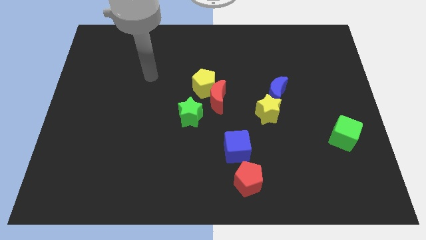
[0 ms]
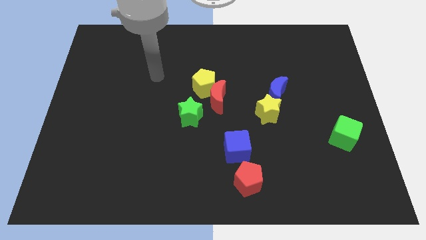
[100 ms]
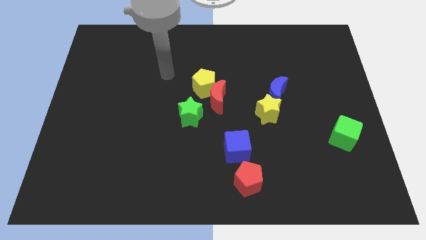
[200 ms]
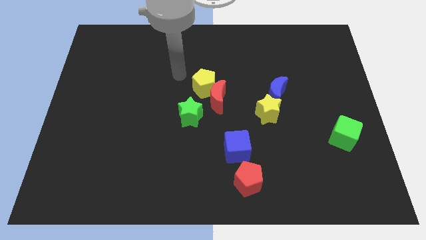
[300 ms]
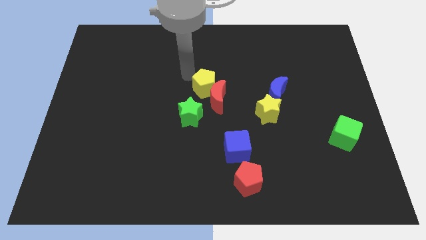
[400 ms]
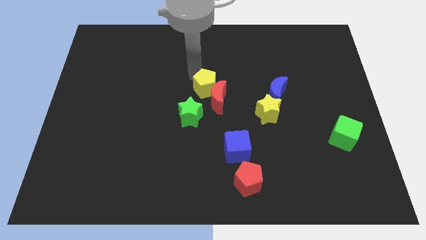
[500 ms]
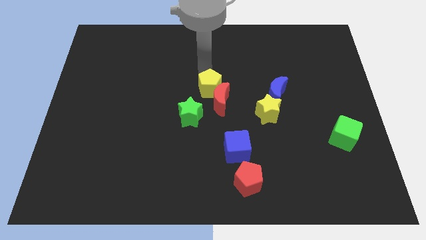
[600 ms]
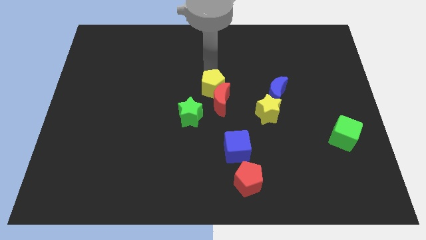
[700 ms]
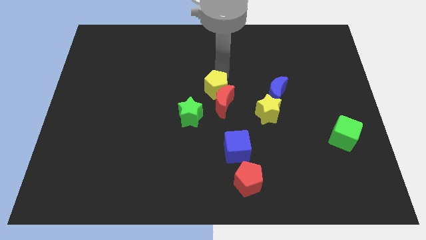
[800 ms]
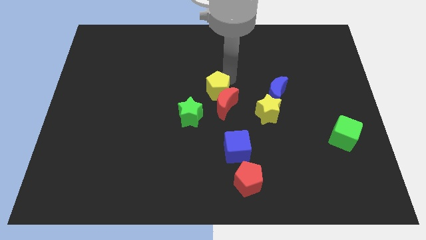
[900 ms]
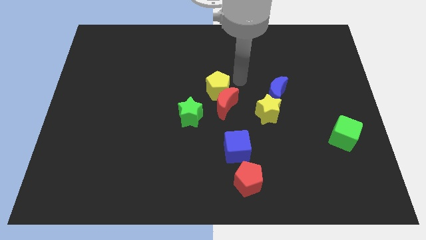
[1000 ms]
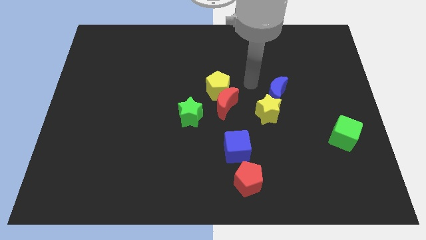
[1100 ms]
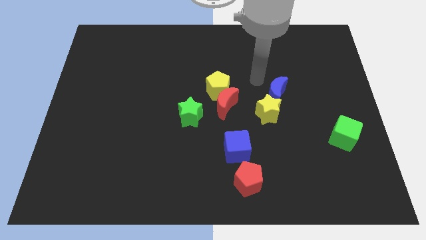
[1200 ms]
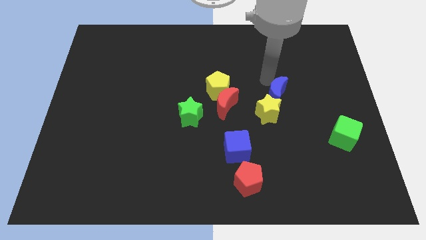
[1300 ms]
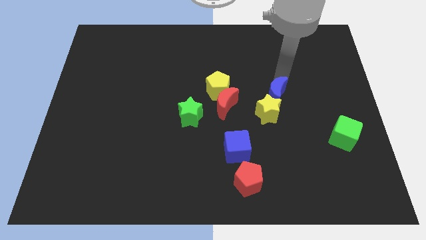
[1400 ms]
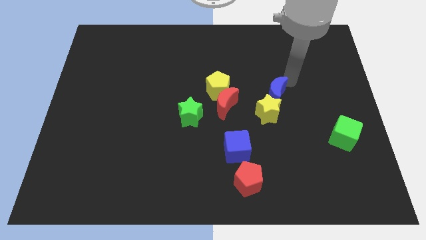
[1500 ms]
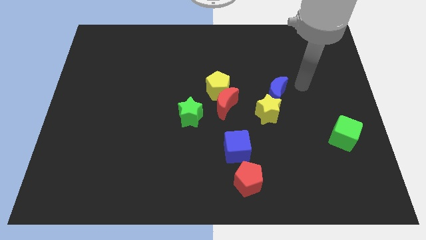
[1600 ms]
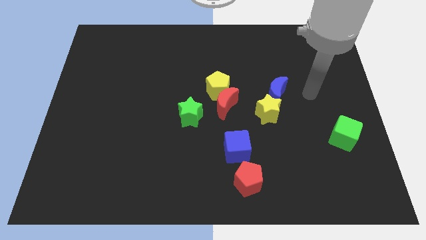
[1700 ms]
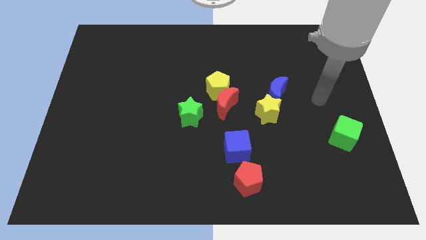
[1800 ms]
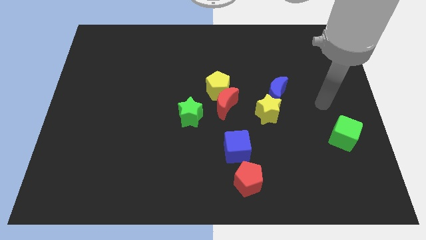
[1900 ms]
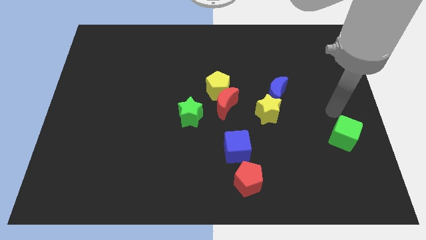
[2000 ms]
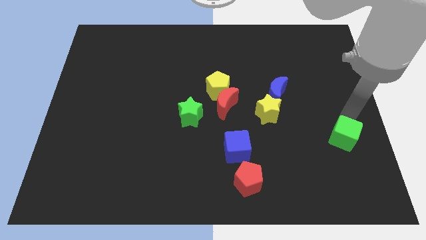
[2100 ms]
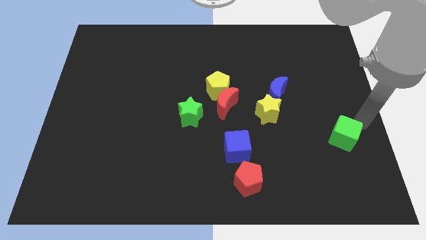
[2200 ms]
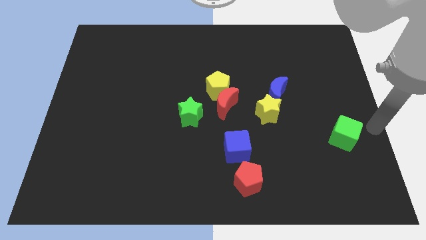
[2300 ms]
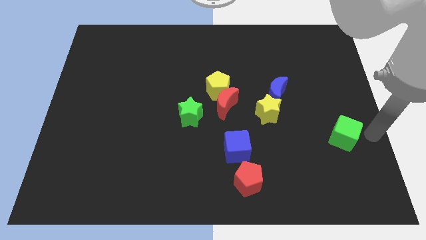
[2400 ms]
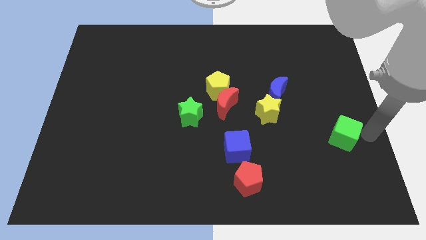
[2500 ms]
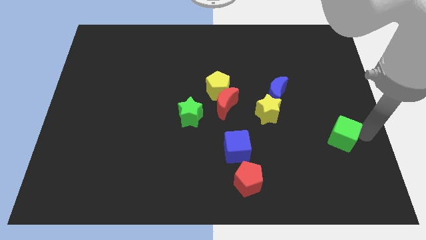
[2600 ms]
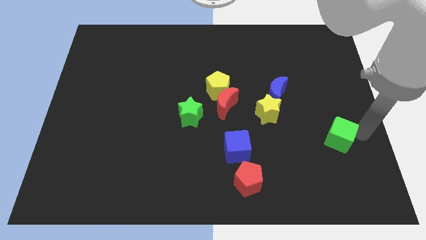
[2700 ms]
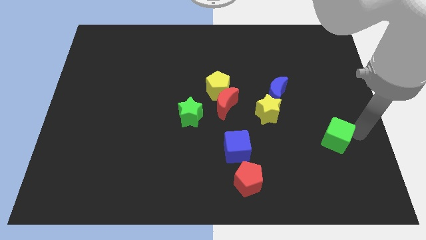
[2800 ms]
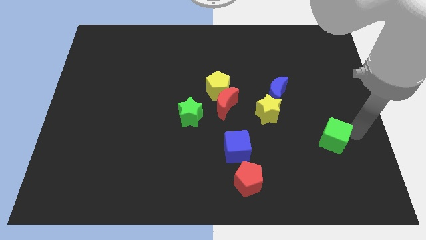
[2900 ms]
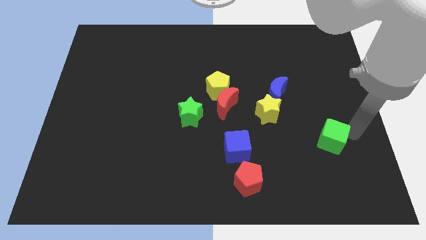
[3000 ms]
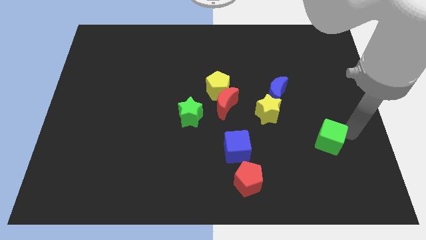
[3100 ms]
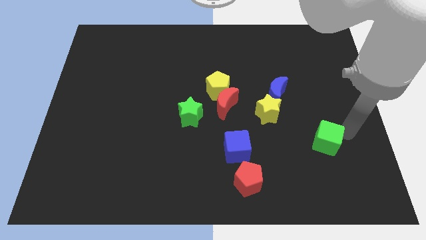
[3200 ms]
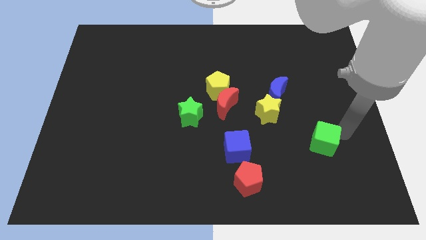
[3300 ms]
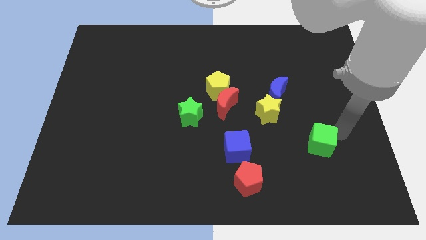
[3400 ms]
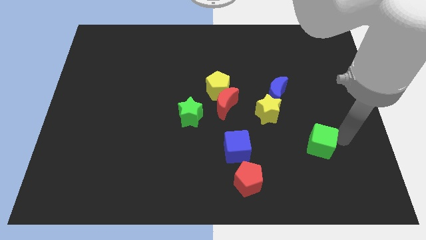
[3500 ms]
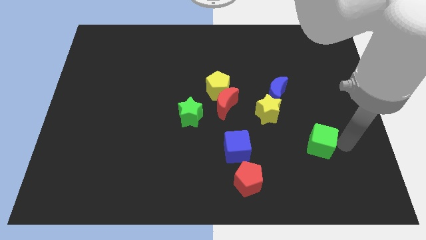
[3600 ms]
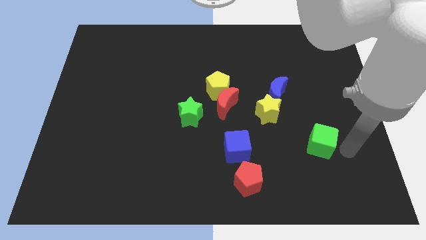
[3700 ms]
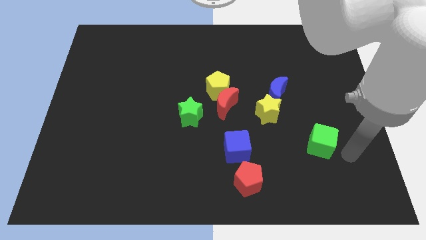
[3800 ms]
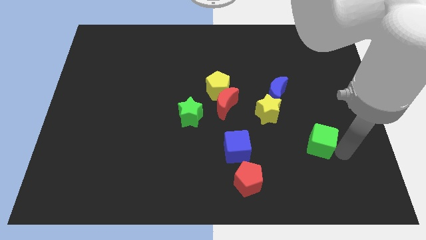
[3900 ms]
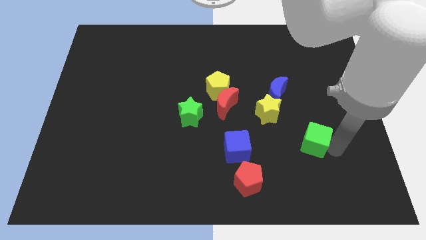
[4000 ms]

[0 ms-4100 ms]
push the green cube left a little bit

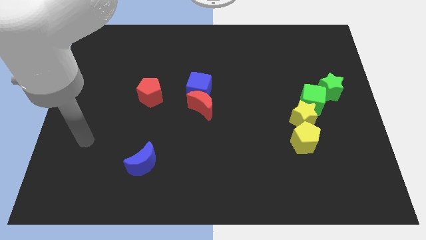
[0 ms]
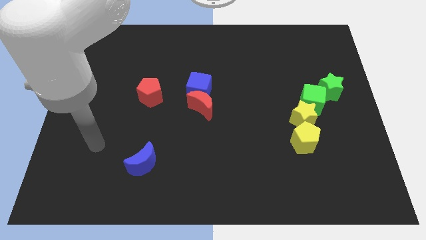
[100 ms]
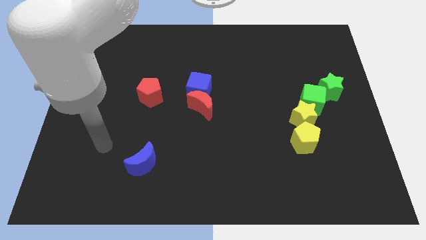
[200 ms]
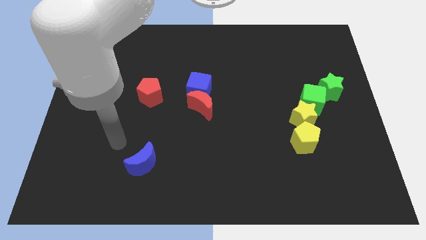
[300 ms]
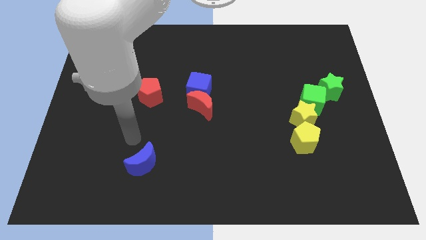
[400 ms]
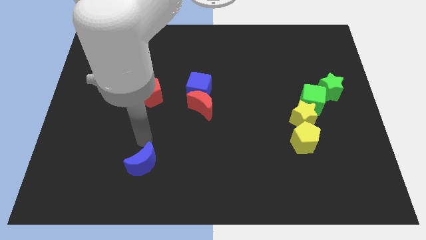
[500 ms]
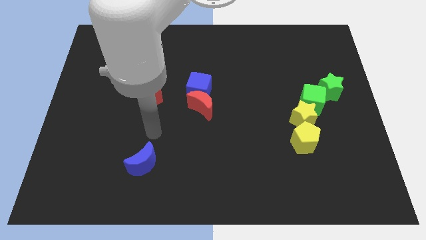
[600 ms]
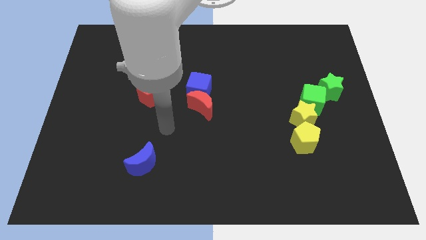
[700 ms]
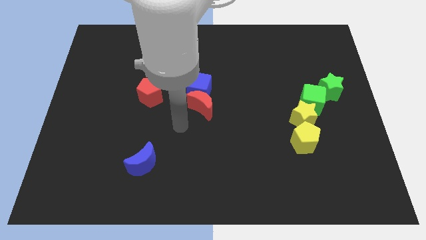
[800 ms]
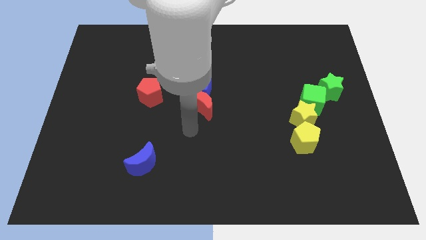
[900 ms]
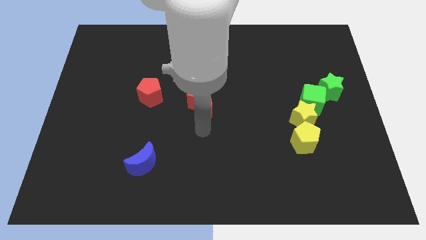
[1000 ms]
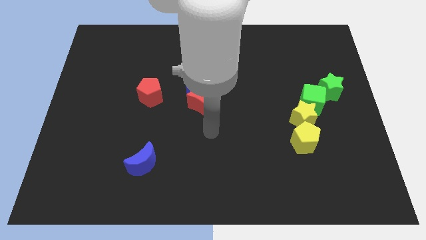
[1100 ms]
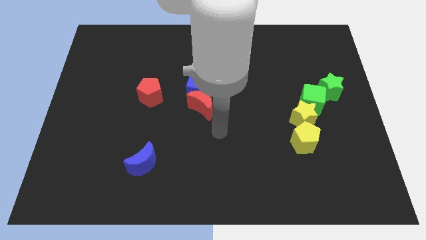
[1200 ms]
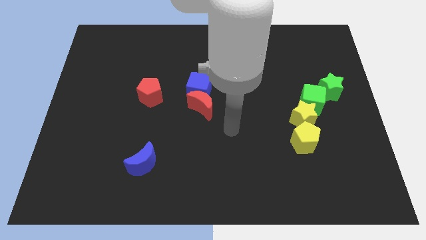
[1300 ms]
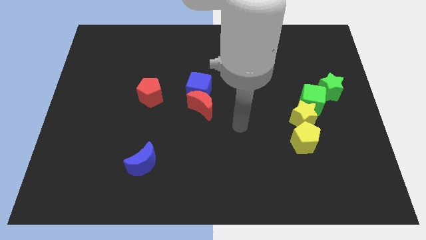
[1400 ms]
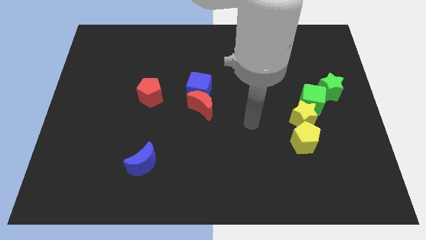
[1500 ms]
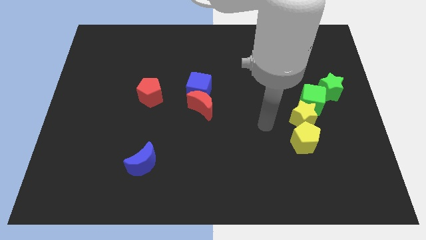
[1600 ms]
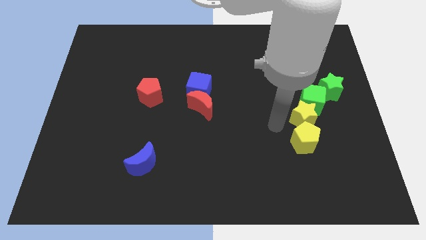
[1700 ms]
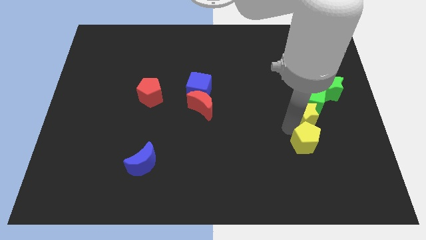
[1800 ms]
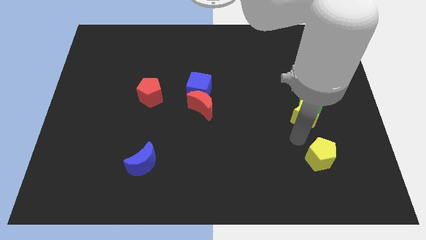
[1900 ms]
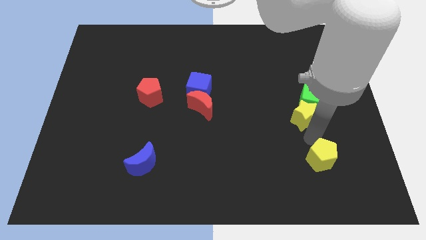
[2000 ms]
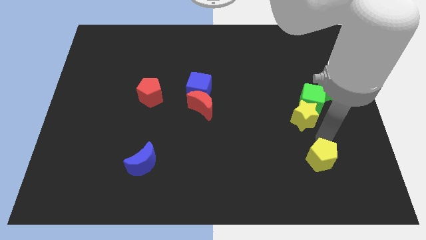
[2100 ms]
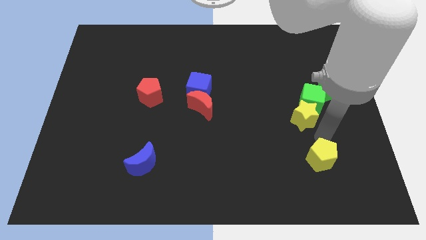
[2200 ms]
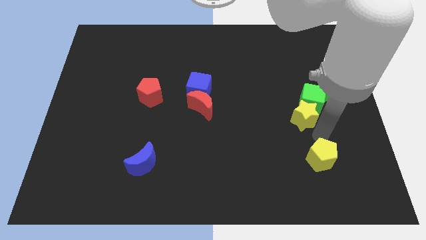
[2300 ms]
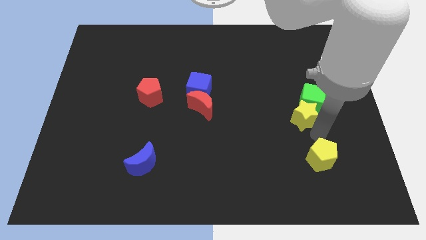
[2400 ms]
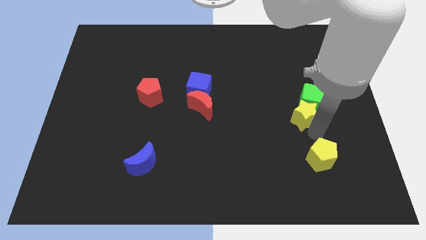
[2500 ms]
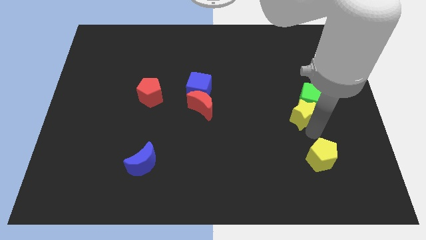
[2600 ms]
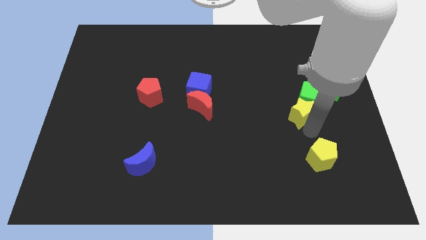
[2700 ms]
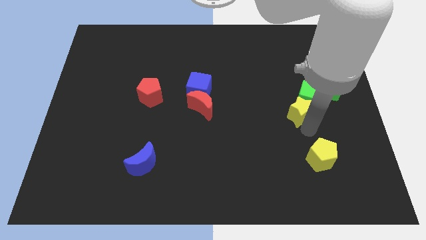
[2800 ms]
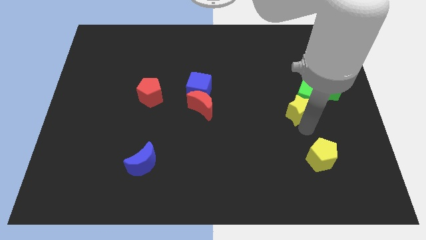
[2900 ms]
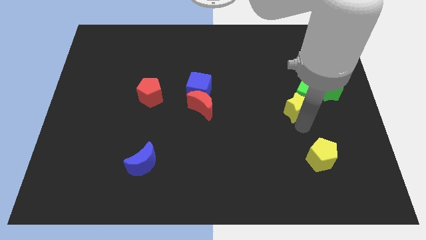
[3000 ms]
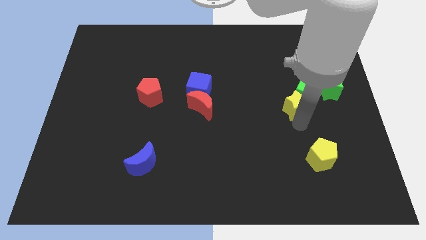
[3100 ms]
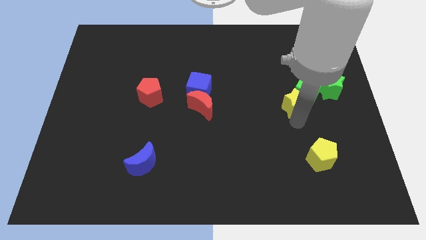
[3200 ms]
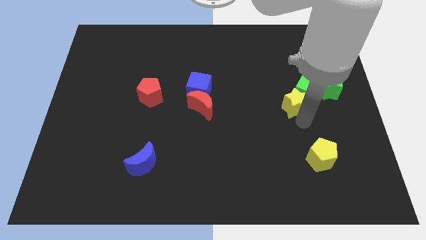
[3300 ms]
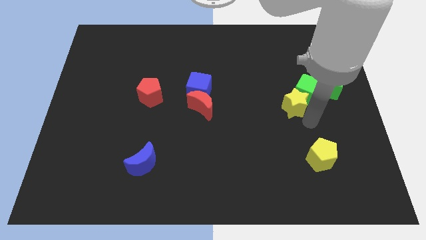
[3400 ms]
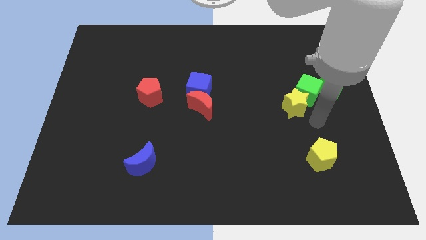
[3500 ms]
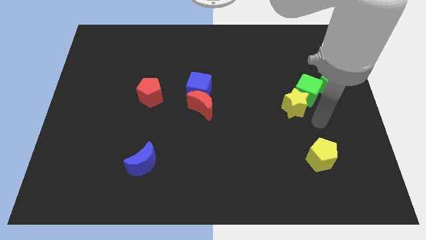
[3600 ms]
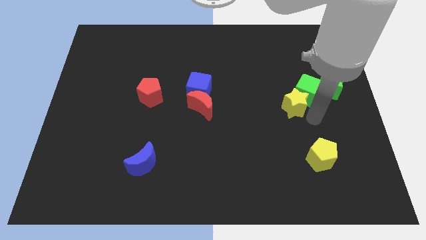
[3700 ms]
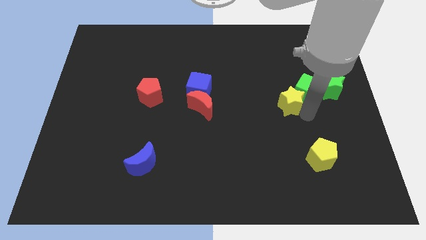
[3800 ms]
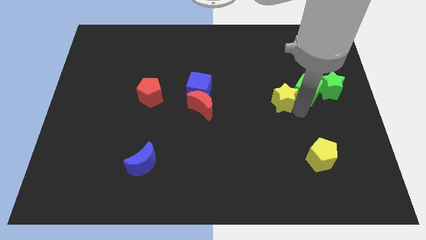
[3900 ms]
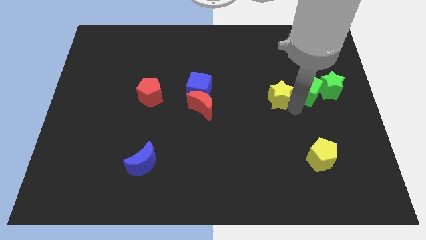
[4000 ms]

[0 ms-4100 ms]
slightly slide the yellow star diagonally upwards and left
